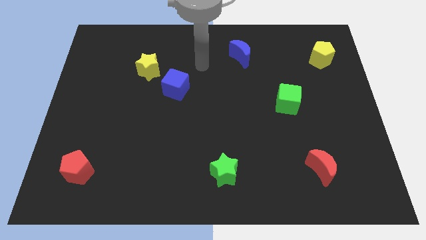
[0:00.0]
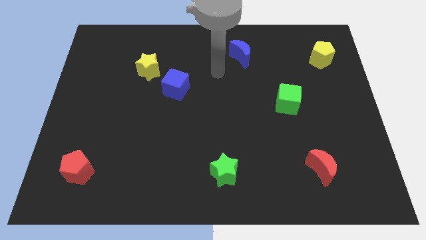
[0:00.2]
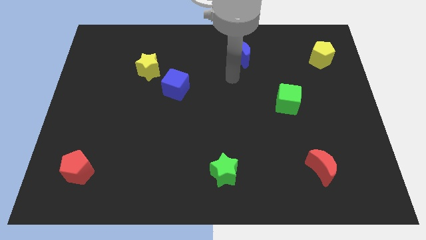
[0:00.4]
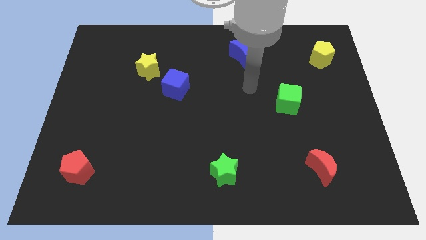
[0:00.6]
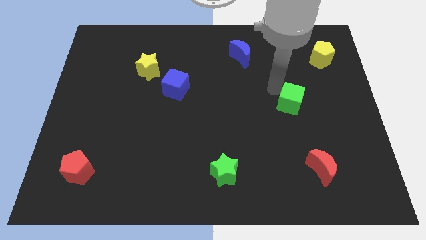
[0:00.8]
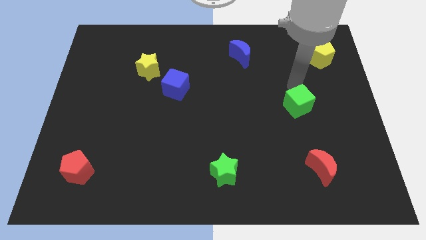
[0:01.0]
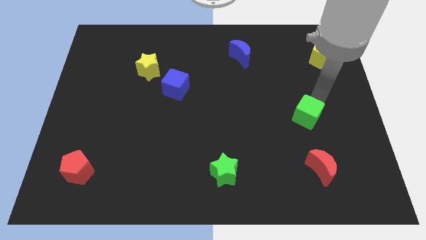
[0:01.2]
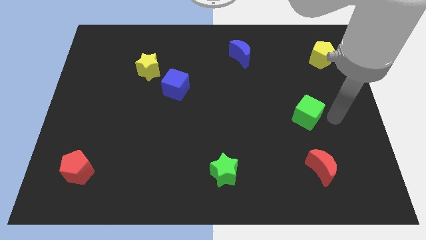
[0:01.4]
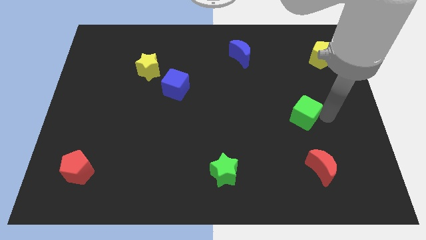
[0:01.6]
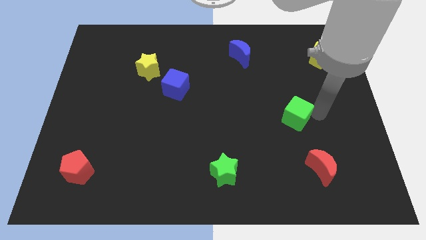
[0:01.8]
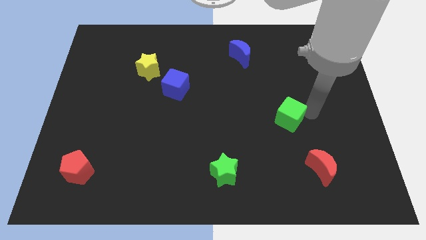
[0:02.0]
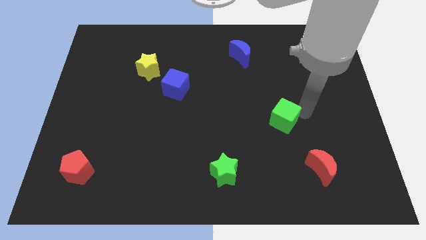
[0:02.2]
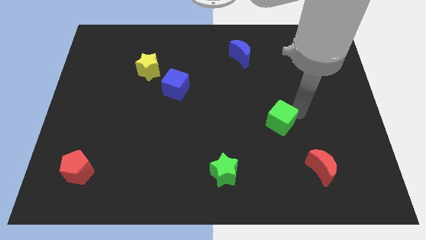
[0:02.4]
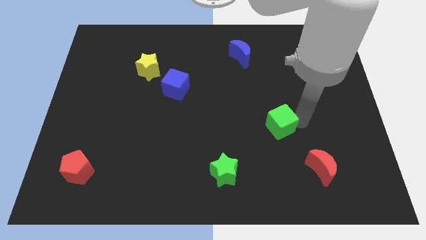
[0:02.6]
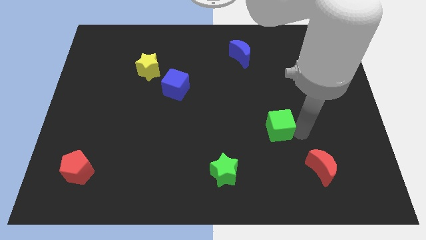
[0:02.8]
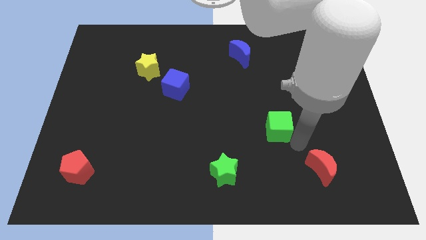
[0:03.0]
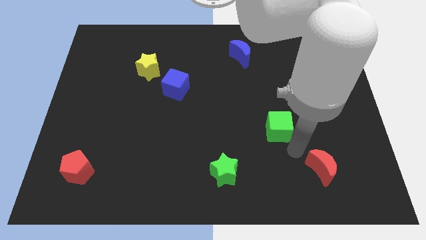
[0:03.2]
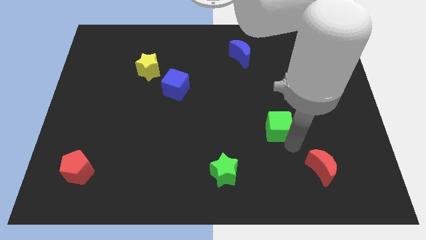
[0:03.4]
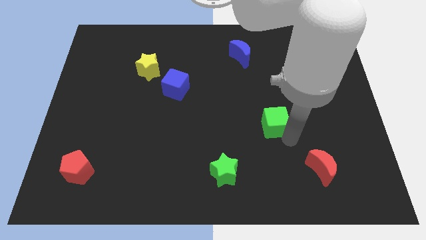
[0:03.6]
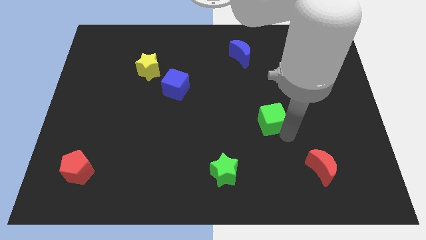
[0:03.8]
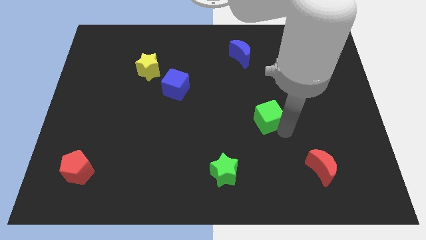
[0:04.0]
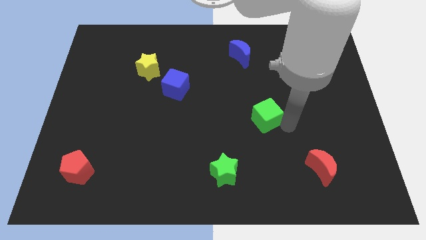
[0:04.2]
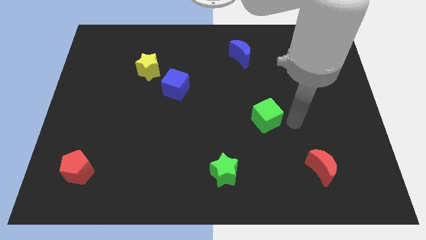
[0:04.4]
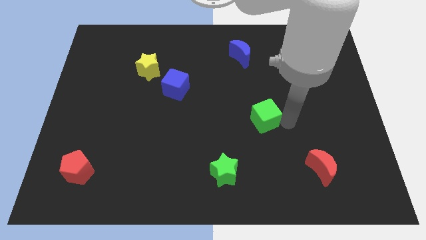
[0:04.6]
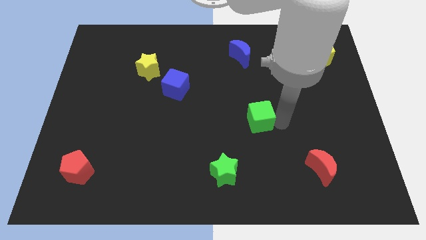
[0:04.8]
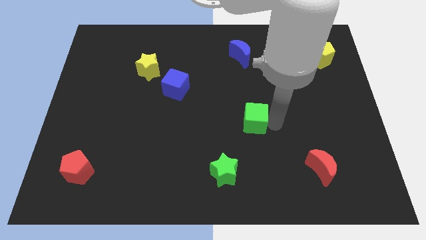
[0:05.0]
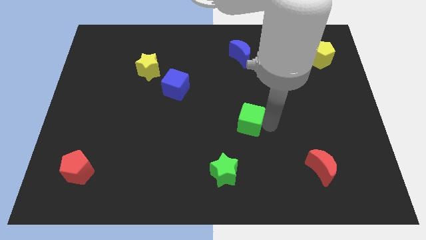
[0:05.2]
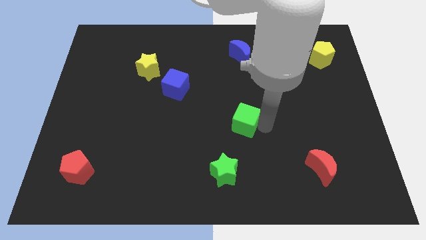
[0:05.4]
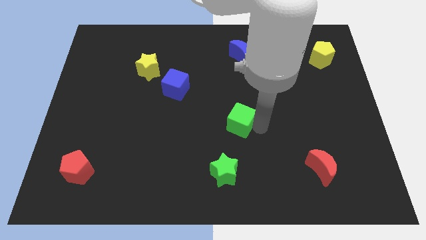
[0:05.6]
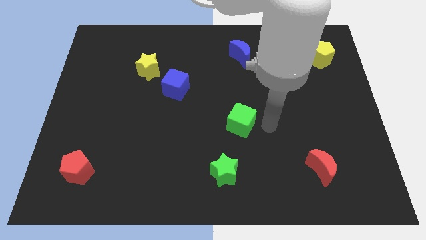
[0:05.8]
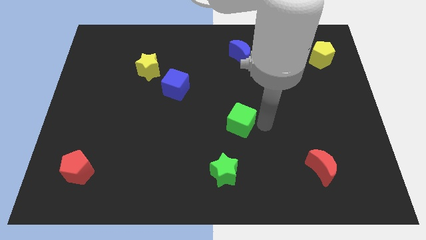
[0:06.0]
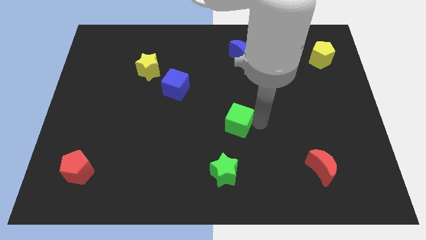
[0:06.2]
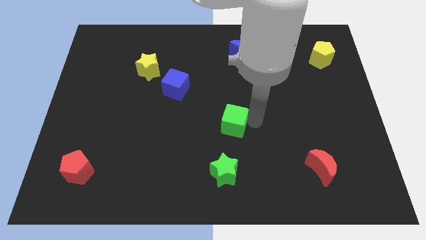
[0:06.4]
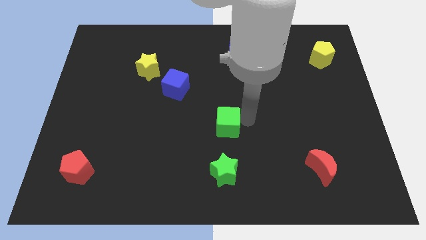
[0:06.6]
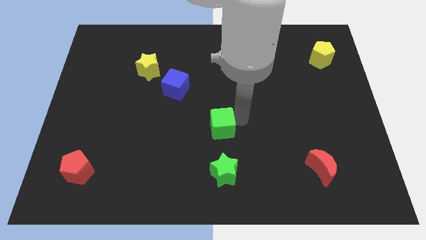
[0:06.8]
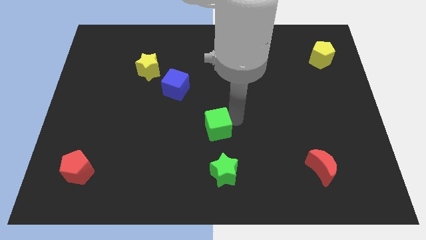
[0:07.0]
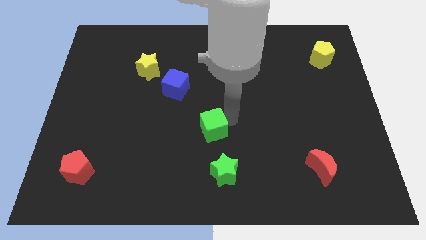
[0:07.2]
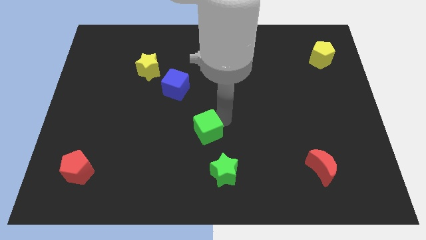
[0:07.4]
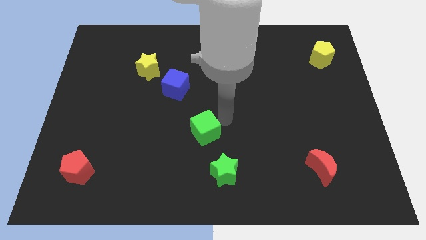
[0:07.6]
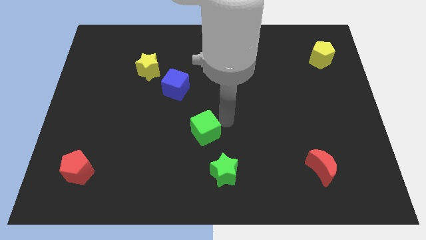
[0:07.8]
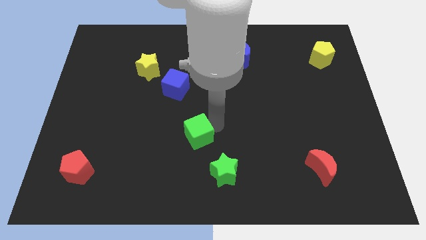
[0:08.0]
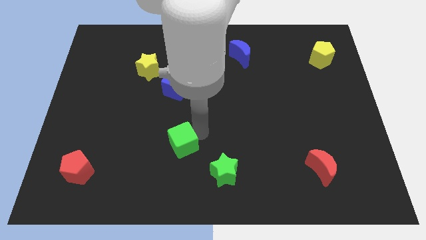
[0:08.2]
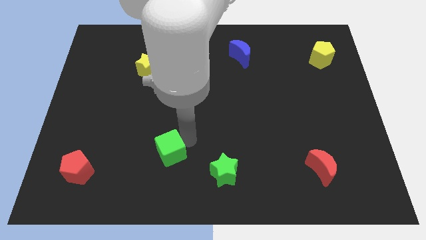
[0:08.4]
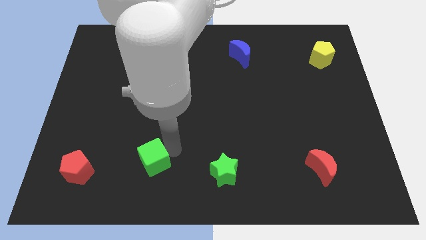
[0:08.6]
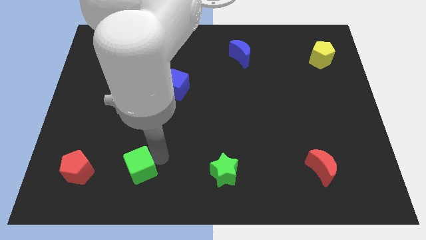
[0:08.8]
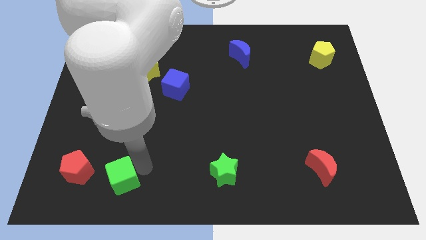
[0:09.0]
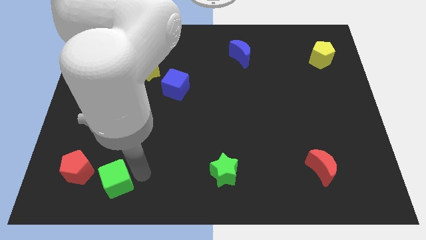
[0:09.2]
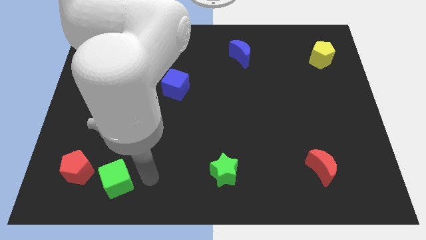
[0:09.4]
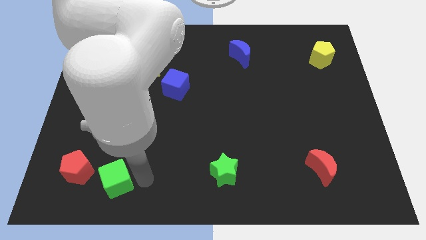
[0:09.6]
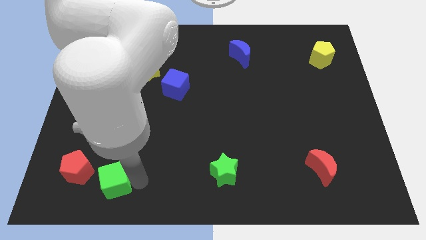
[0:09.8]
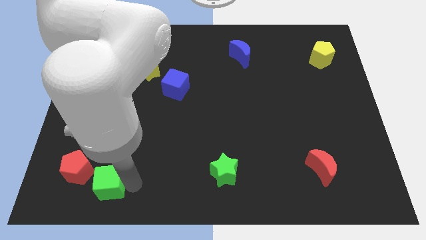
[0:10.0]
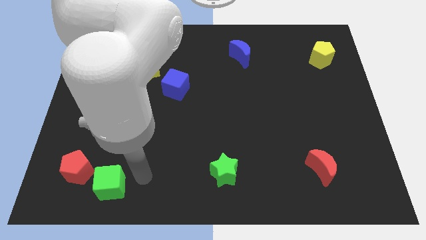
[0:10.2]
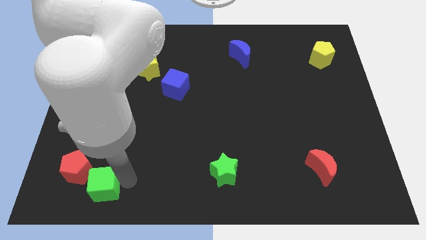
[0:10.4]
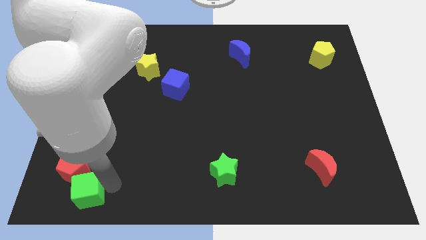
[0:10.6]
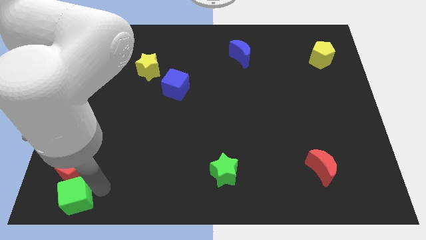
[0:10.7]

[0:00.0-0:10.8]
move the green cube to the bottom left corner
